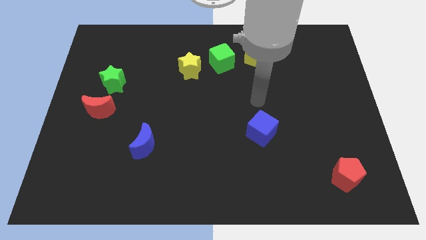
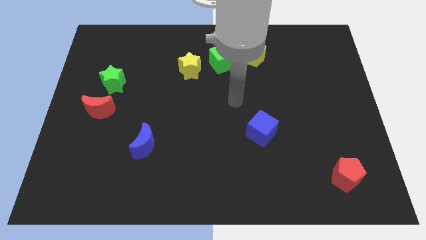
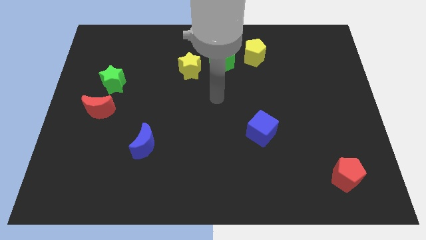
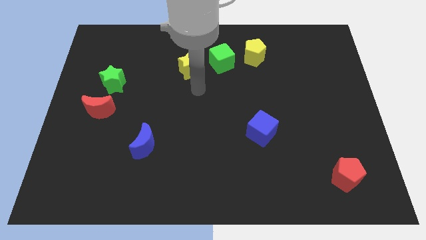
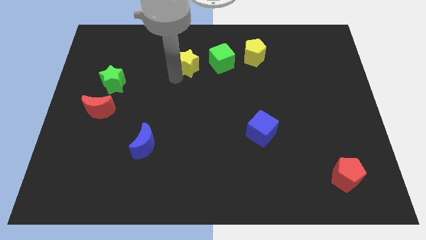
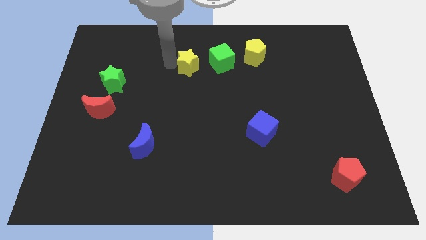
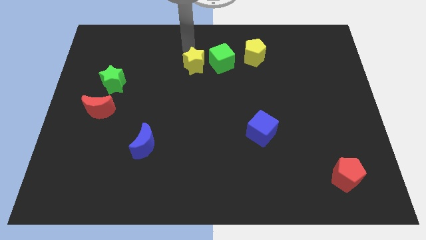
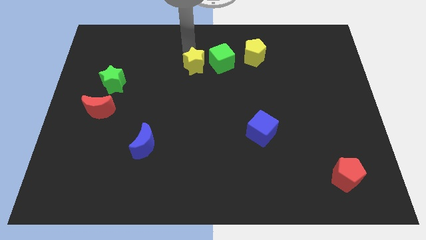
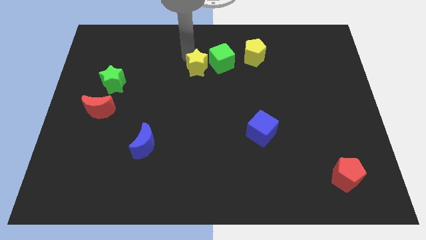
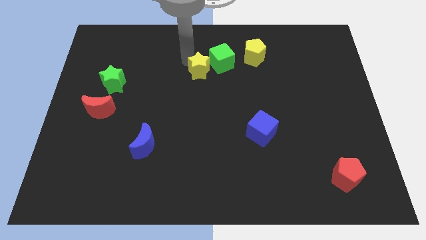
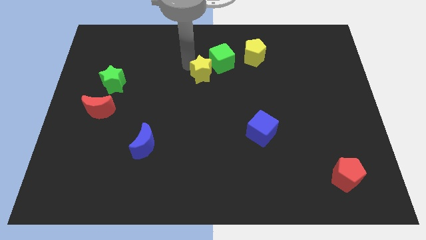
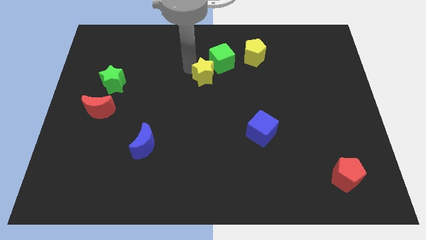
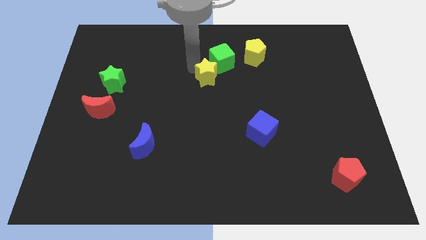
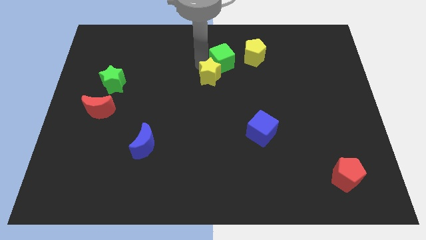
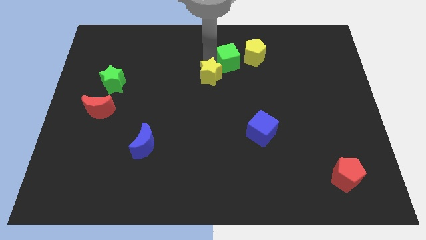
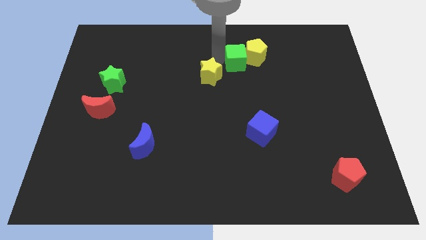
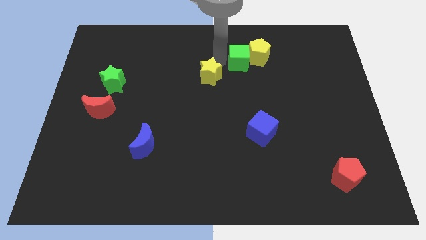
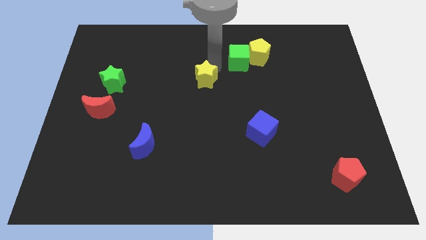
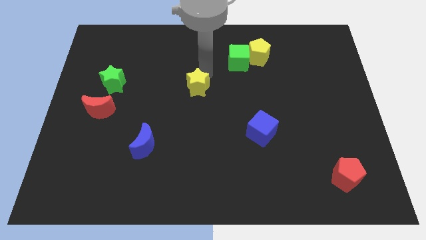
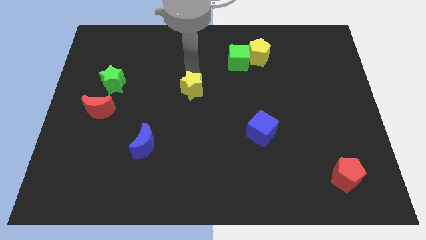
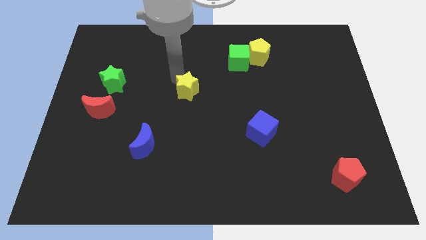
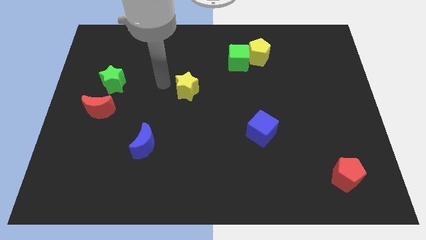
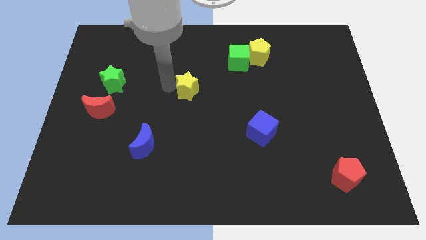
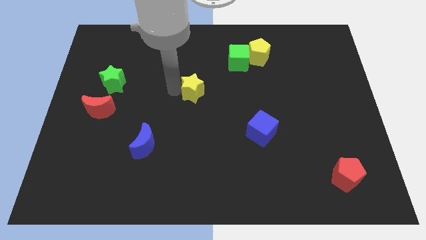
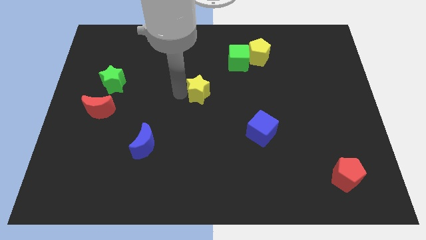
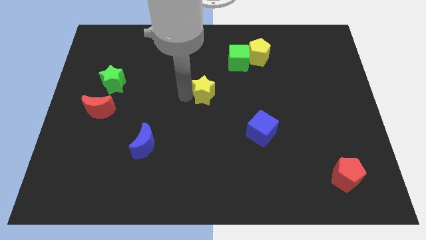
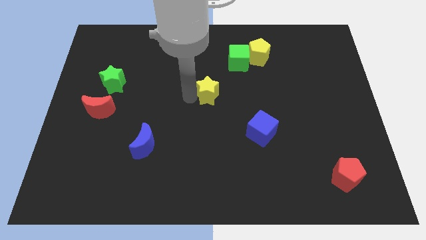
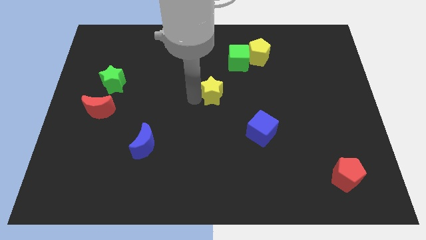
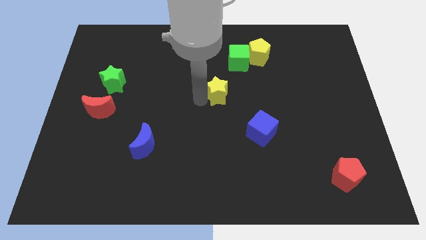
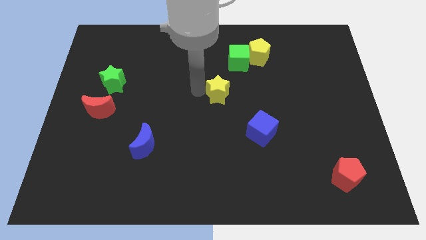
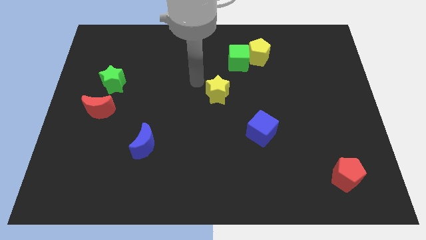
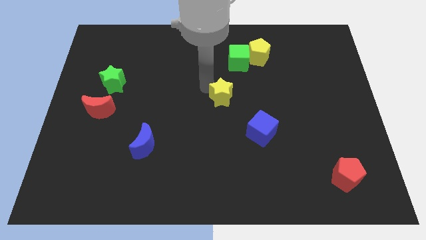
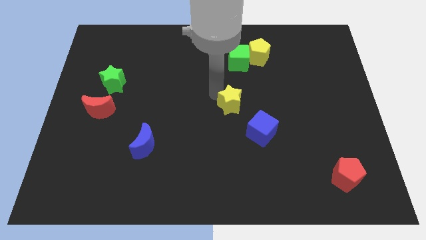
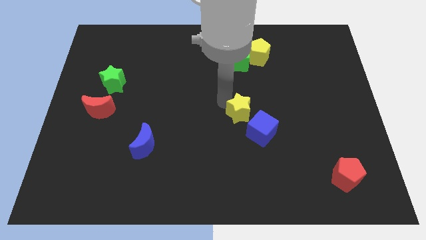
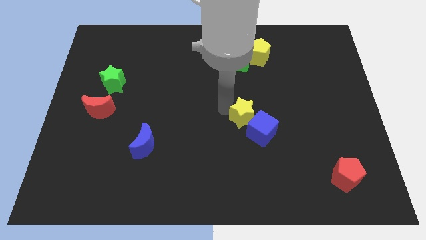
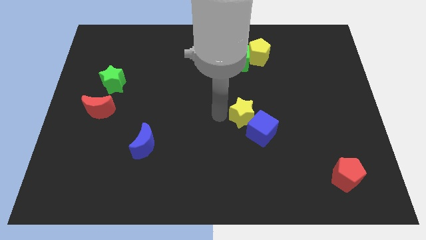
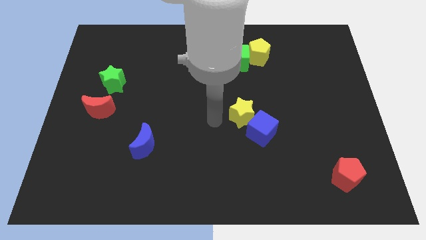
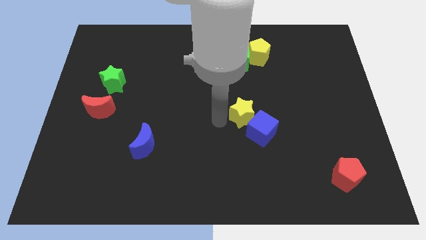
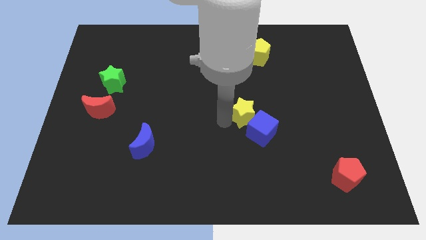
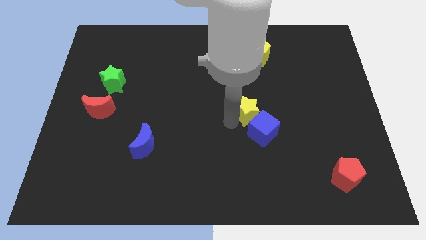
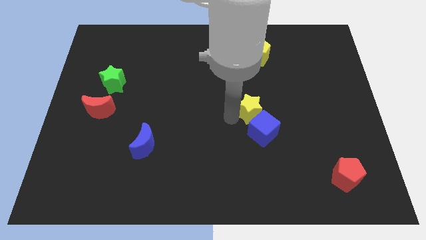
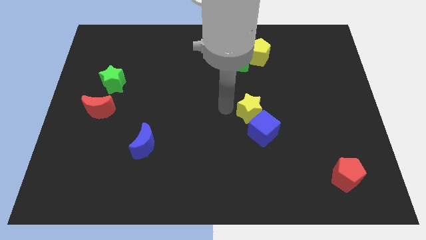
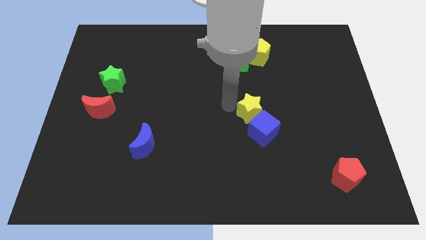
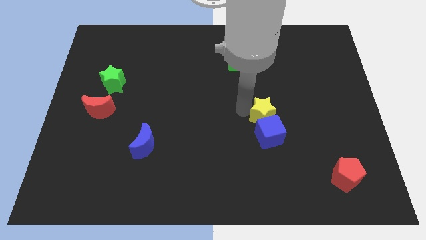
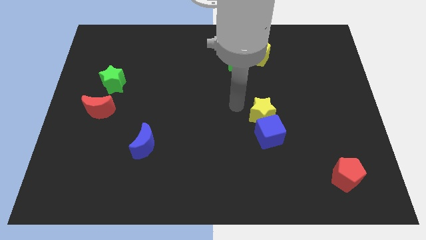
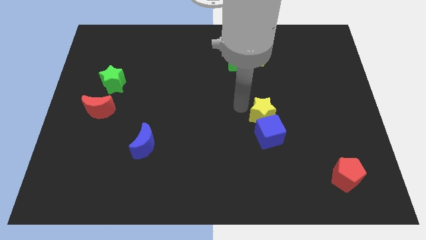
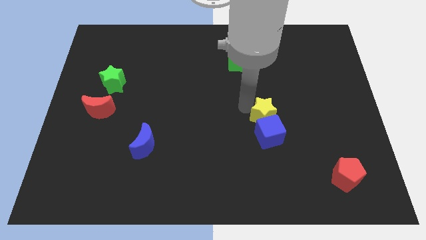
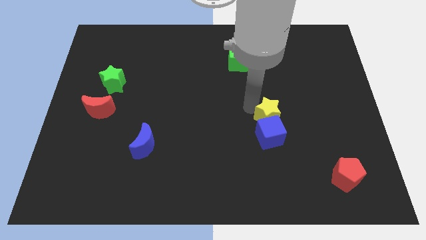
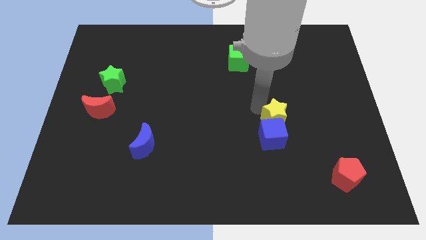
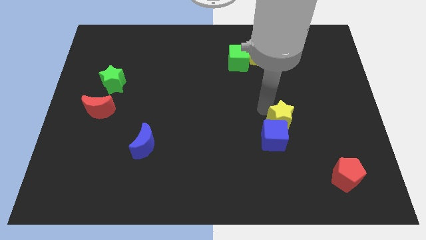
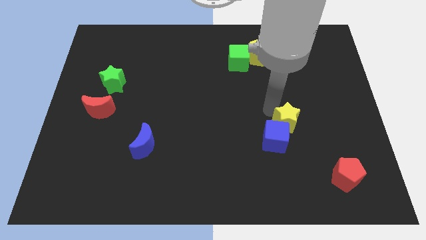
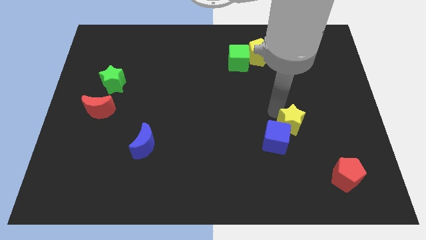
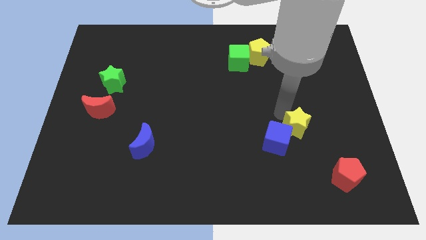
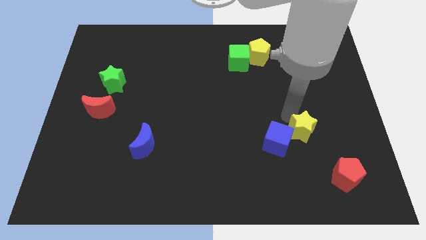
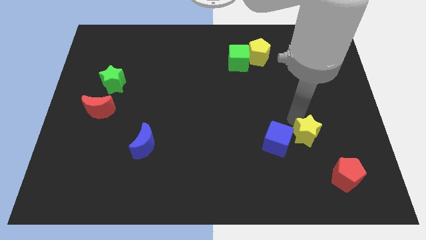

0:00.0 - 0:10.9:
slide the yellow star to the top left of the red pentagon

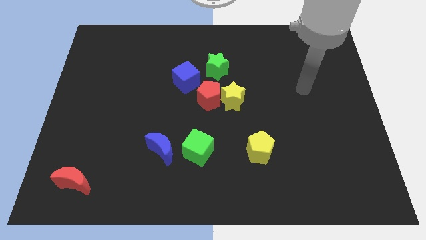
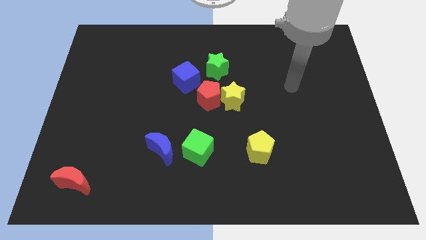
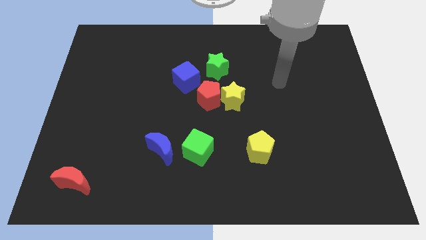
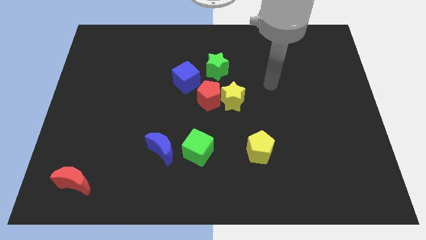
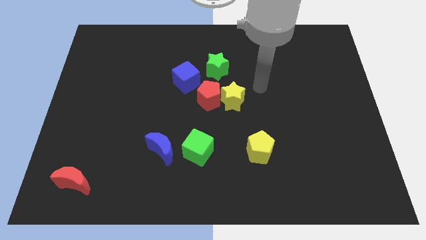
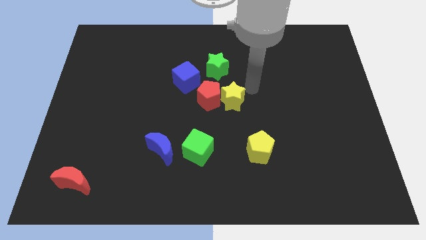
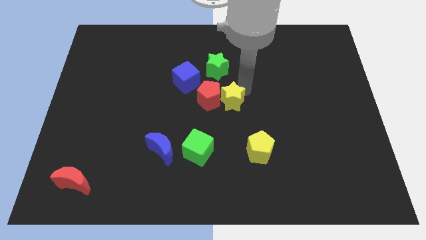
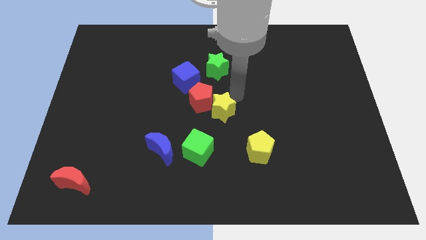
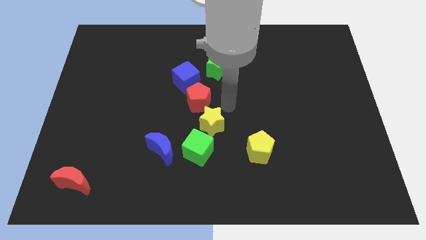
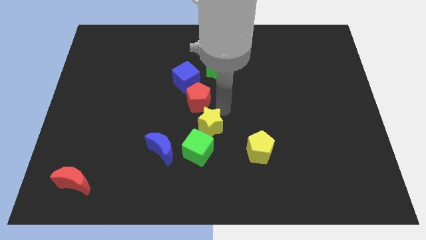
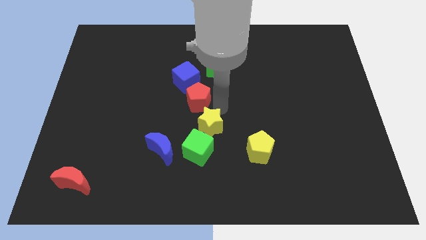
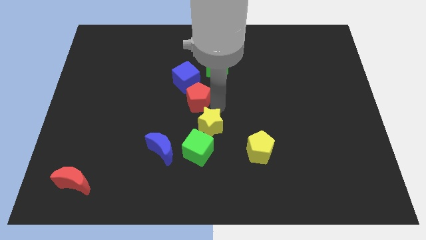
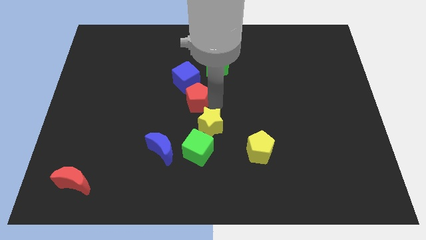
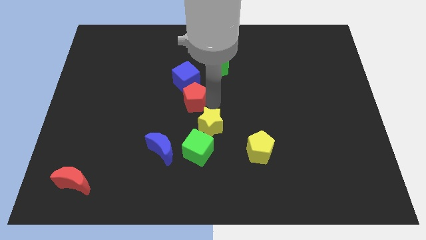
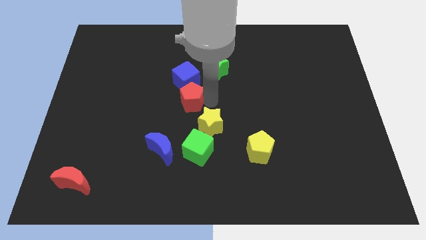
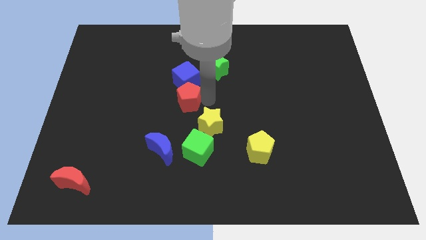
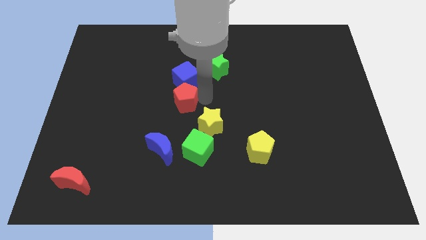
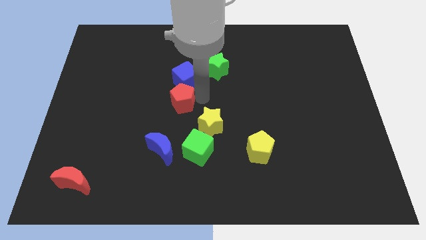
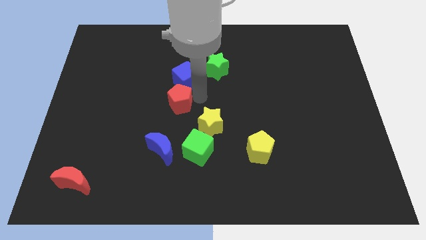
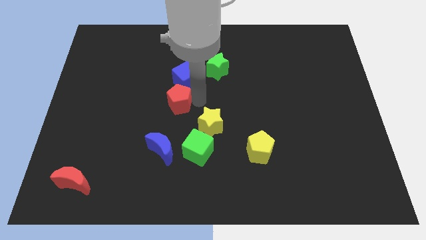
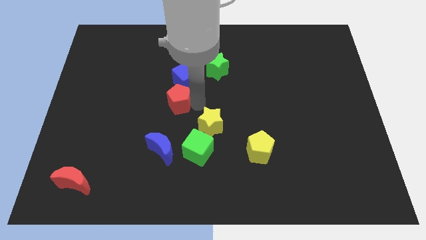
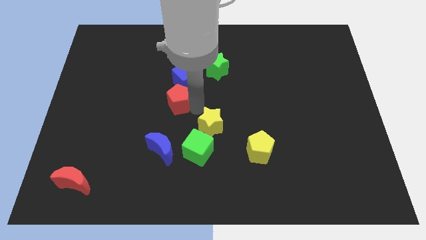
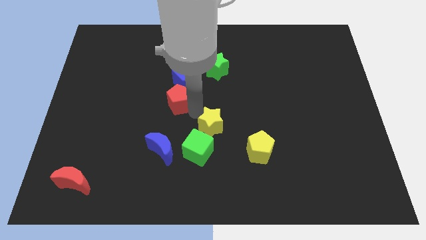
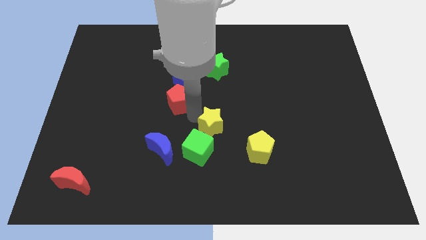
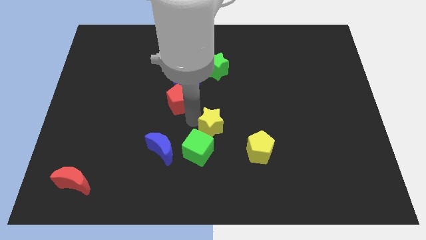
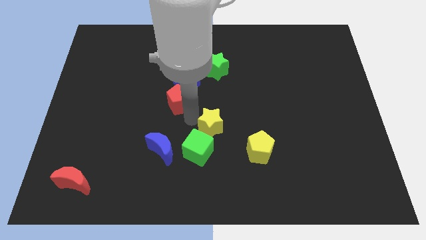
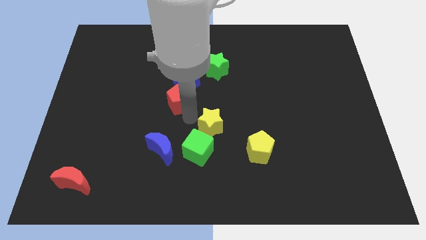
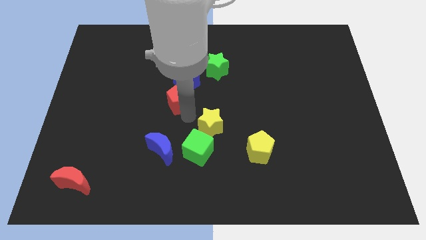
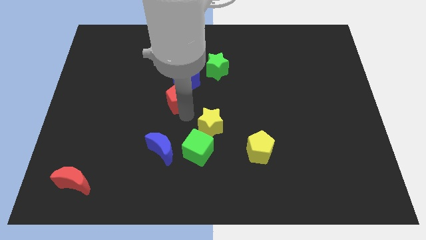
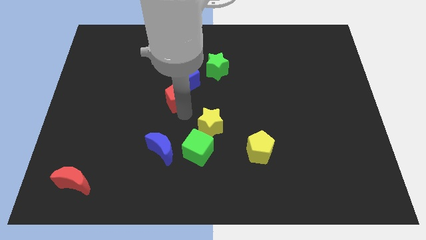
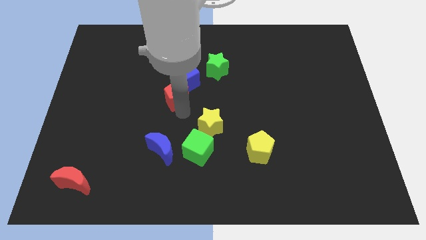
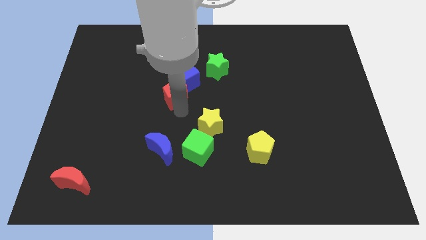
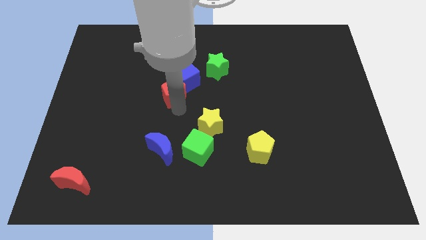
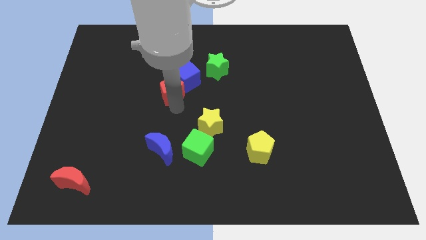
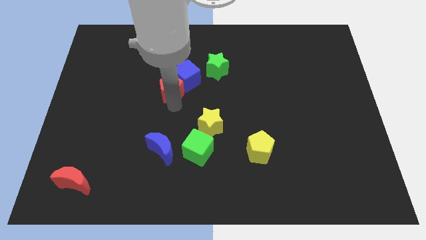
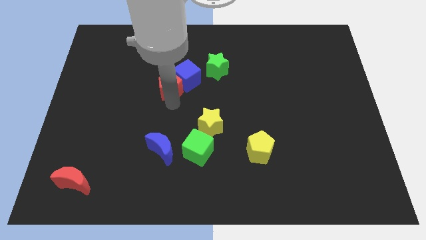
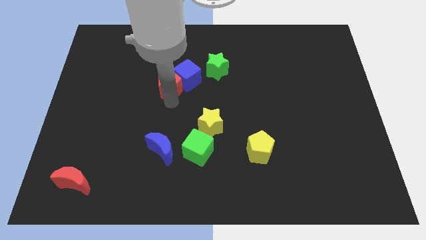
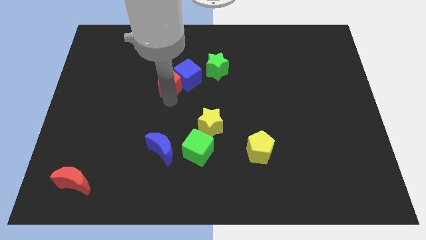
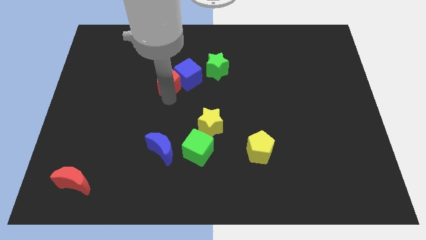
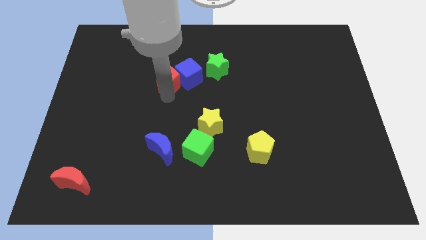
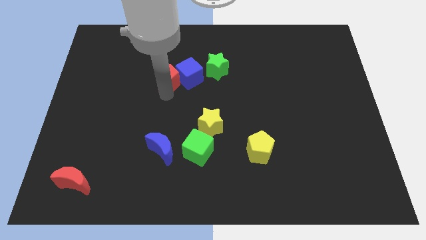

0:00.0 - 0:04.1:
put the red pentagon diagonally up and to the left of the blue cube
